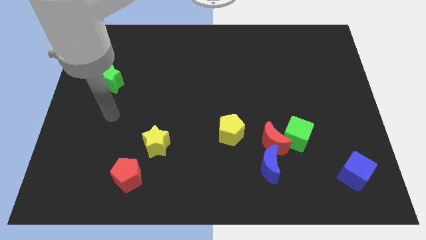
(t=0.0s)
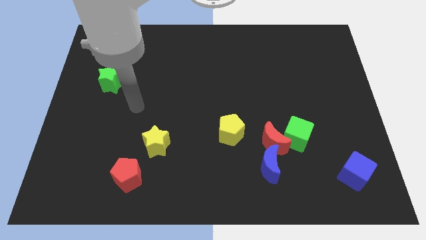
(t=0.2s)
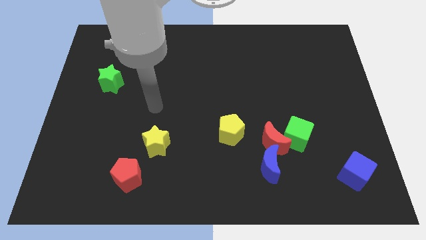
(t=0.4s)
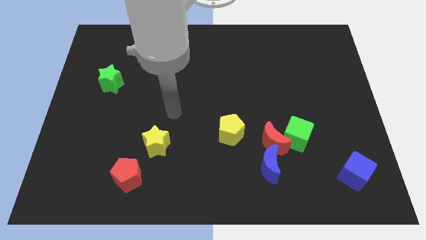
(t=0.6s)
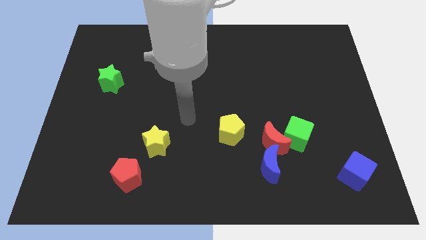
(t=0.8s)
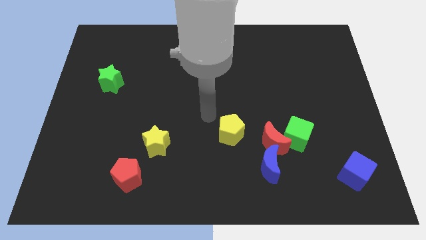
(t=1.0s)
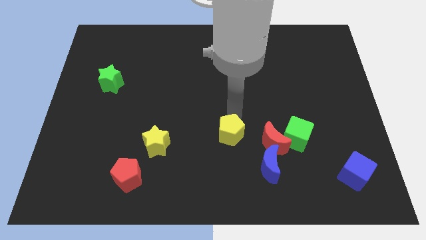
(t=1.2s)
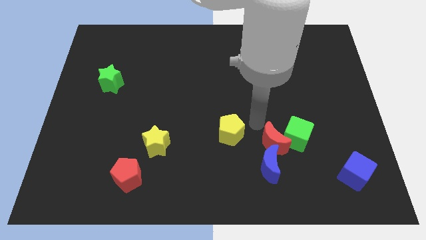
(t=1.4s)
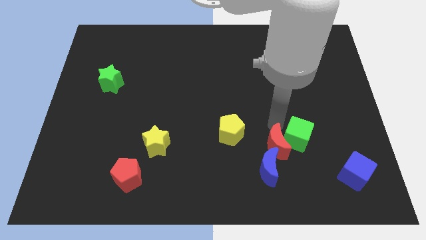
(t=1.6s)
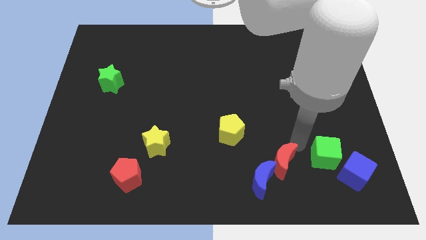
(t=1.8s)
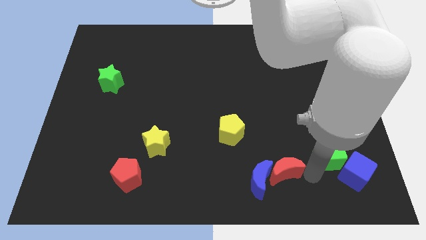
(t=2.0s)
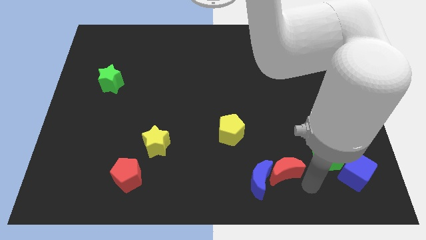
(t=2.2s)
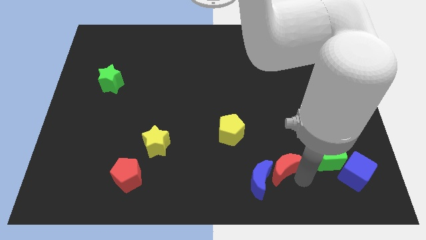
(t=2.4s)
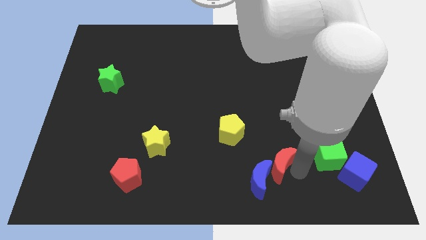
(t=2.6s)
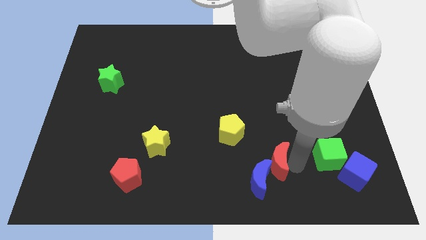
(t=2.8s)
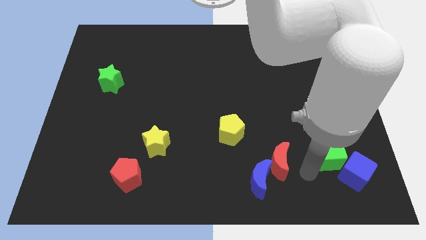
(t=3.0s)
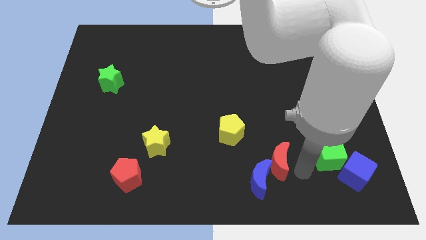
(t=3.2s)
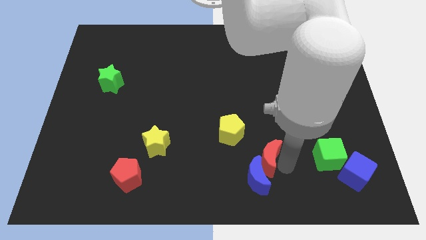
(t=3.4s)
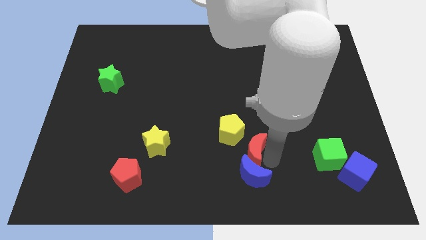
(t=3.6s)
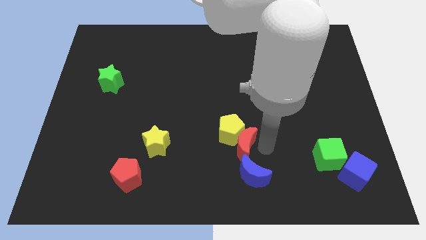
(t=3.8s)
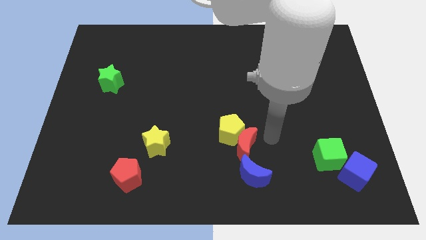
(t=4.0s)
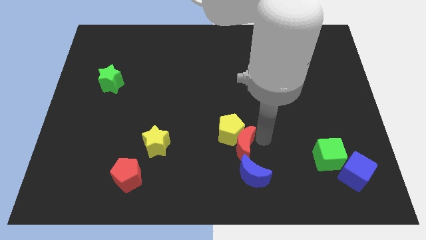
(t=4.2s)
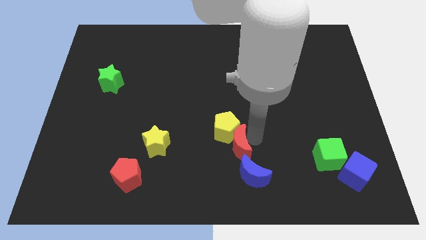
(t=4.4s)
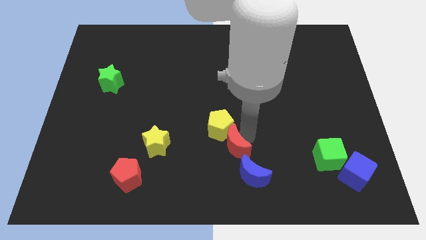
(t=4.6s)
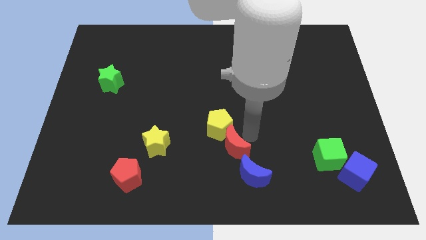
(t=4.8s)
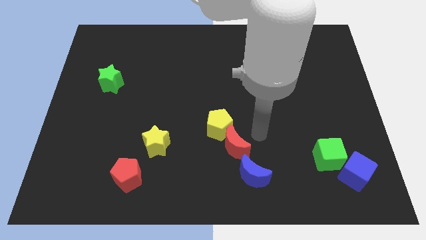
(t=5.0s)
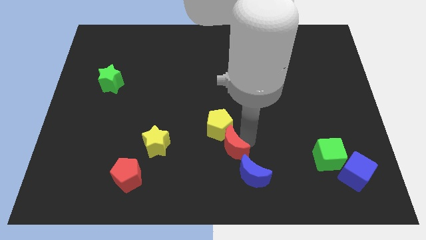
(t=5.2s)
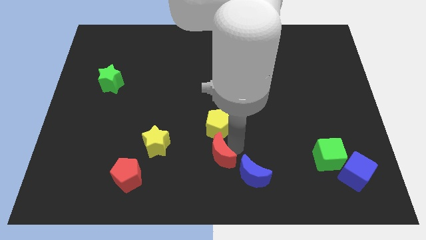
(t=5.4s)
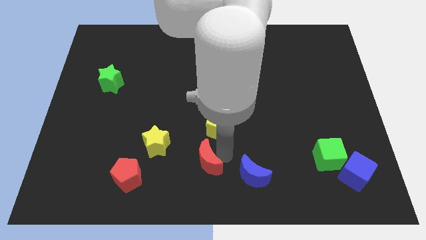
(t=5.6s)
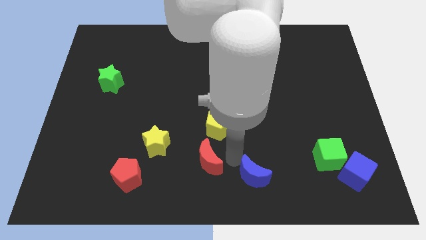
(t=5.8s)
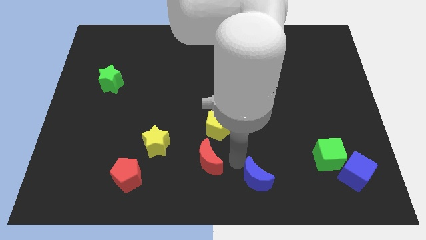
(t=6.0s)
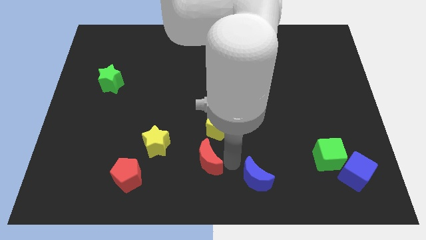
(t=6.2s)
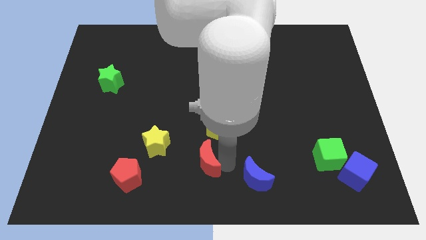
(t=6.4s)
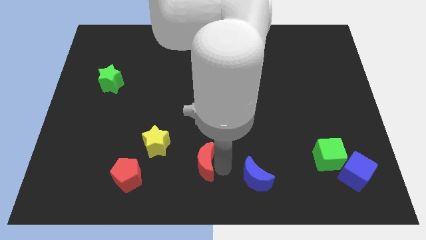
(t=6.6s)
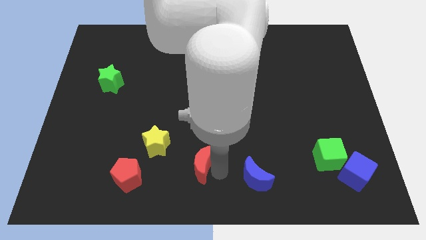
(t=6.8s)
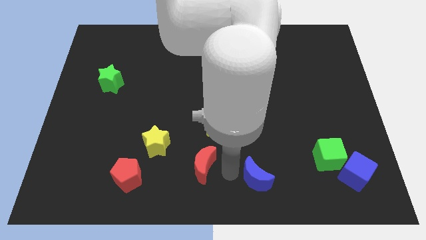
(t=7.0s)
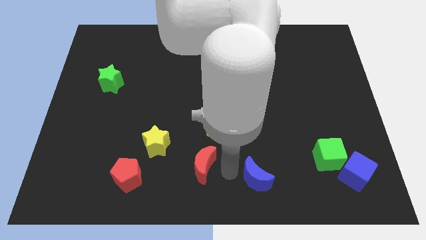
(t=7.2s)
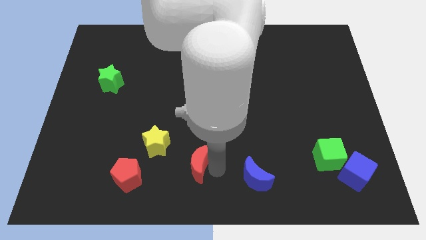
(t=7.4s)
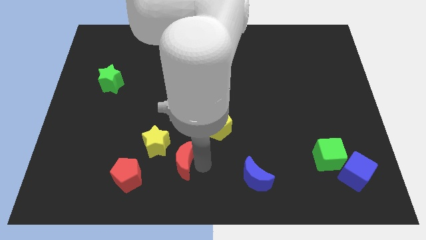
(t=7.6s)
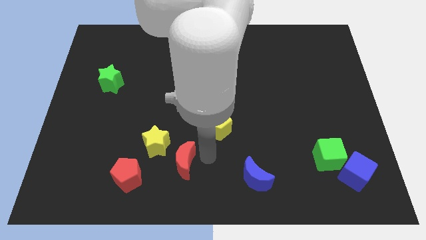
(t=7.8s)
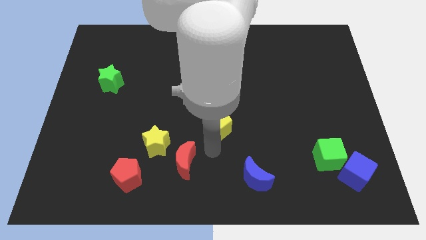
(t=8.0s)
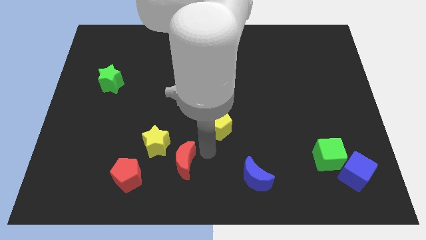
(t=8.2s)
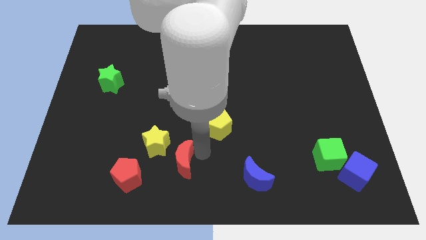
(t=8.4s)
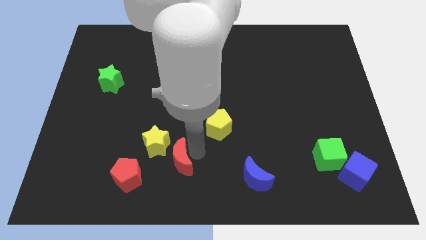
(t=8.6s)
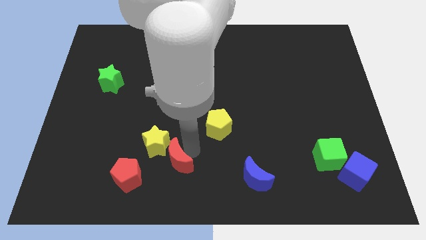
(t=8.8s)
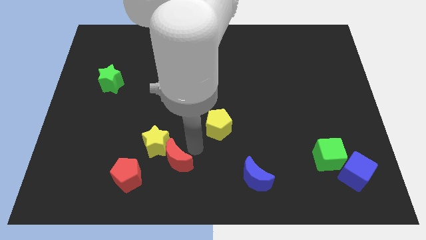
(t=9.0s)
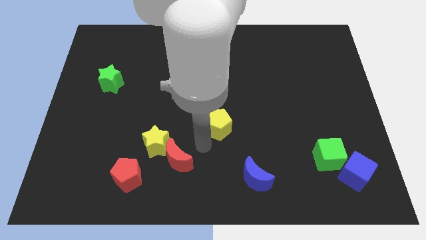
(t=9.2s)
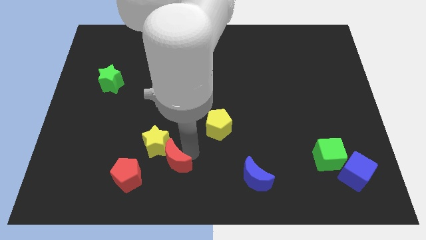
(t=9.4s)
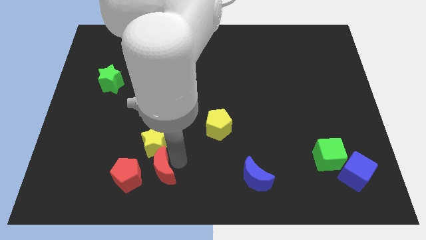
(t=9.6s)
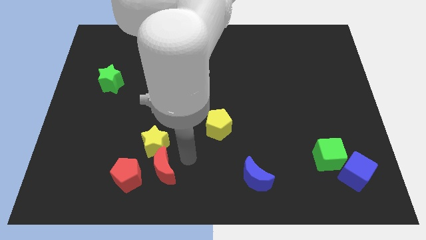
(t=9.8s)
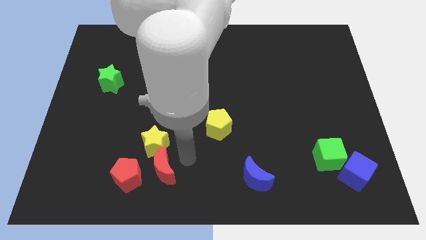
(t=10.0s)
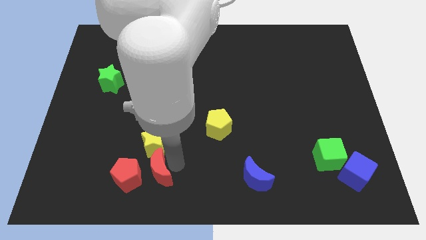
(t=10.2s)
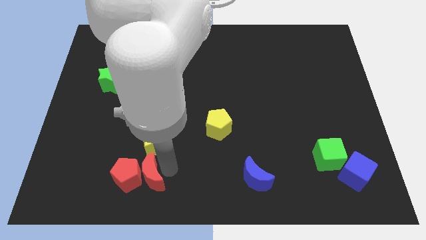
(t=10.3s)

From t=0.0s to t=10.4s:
push the red moon to the red pentagon

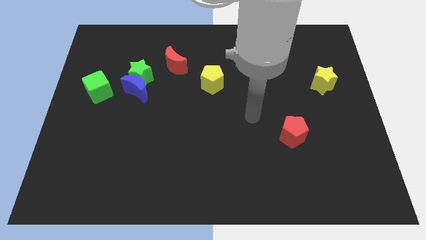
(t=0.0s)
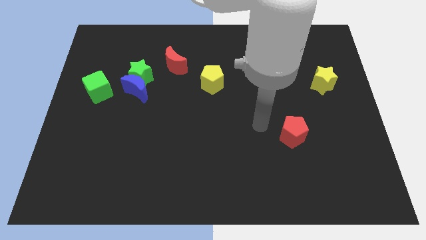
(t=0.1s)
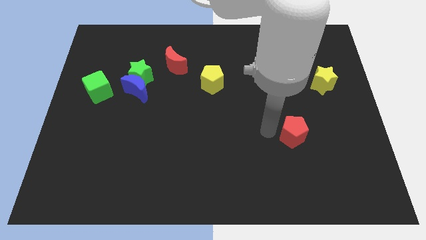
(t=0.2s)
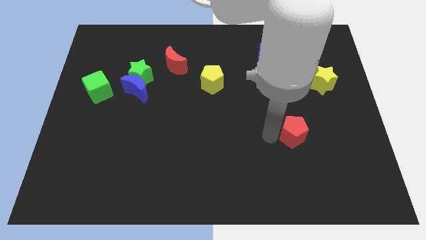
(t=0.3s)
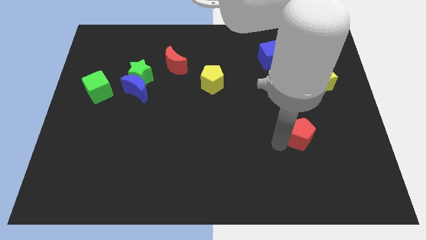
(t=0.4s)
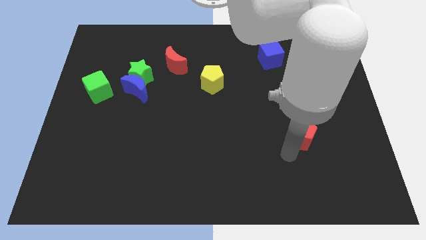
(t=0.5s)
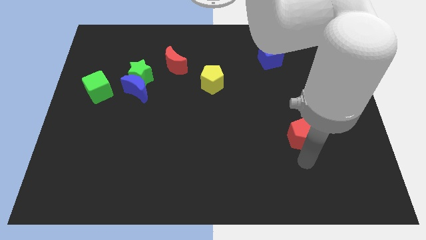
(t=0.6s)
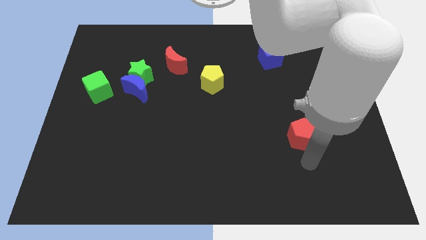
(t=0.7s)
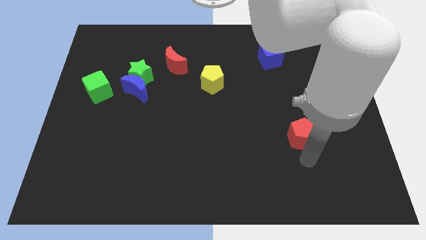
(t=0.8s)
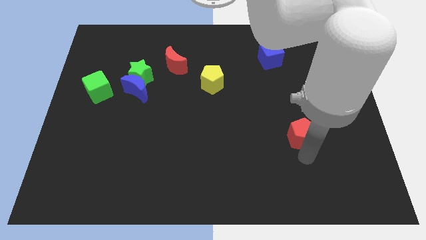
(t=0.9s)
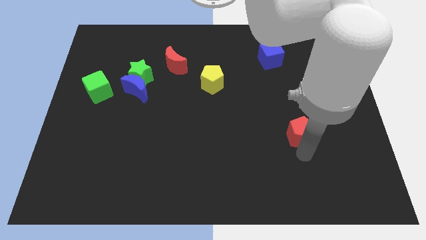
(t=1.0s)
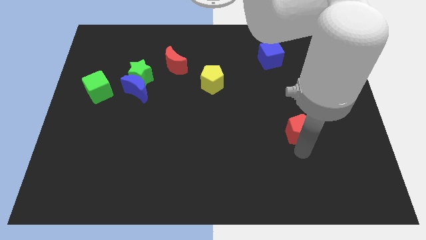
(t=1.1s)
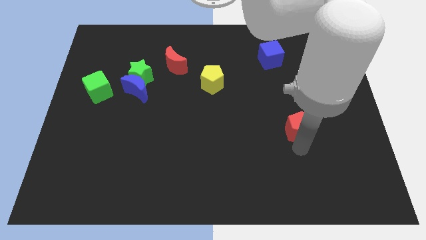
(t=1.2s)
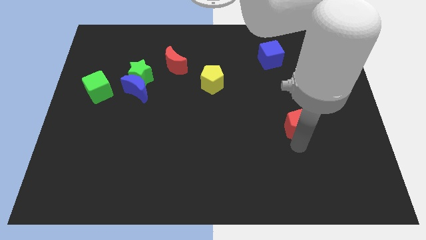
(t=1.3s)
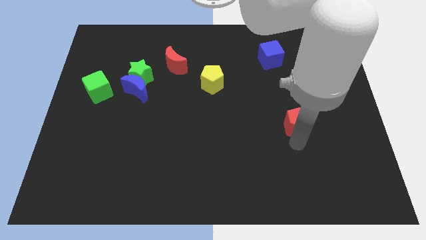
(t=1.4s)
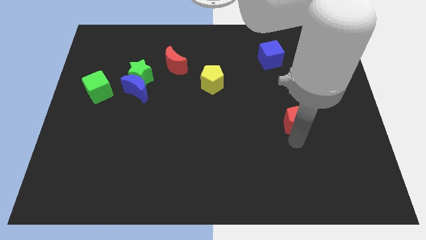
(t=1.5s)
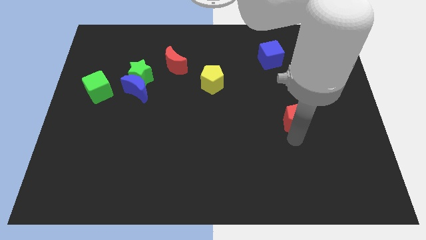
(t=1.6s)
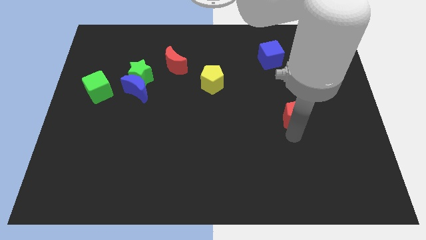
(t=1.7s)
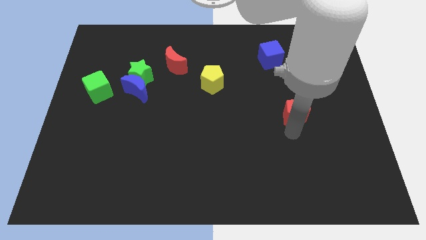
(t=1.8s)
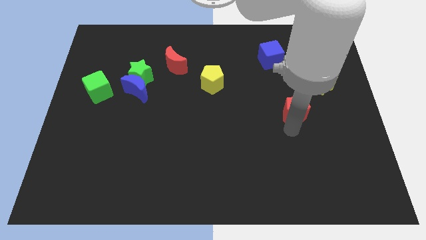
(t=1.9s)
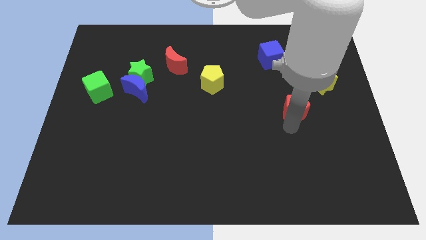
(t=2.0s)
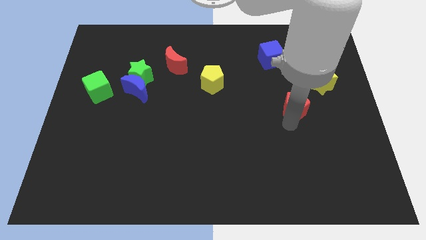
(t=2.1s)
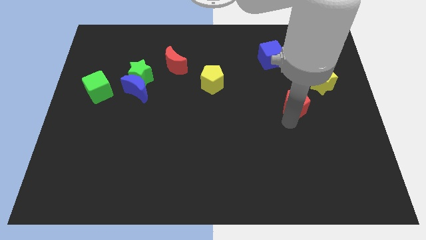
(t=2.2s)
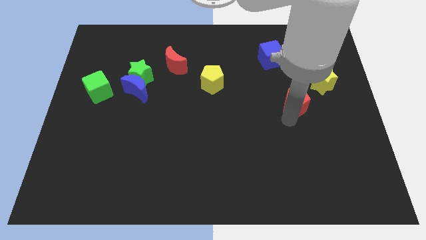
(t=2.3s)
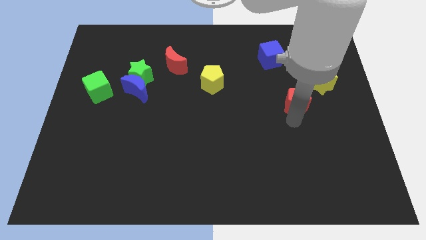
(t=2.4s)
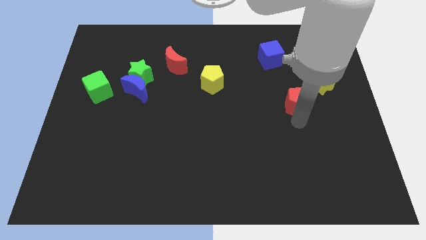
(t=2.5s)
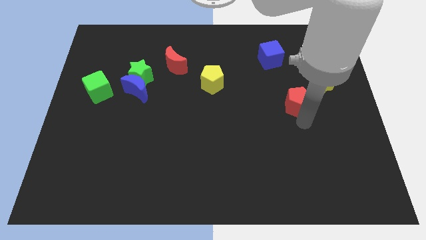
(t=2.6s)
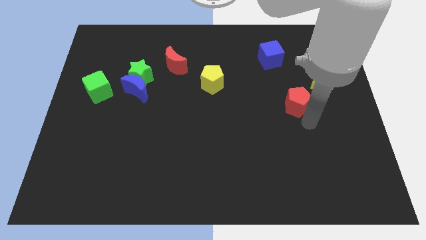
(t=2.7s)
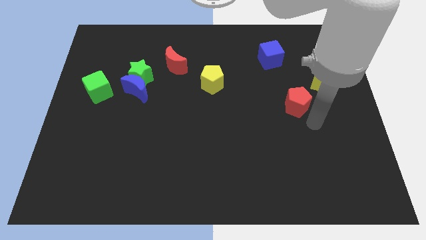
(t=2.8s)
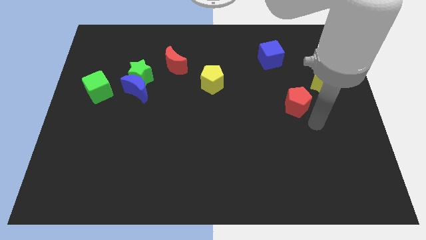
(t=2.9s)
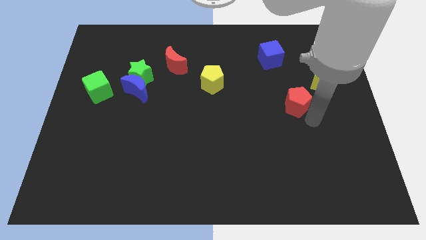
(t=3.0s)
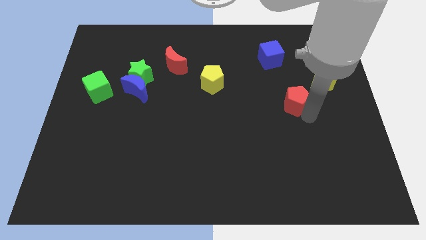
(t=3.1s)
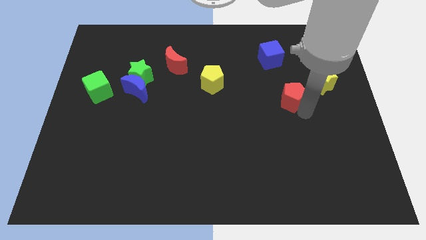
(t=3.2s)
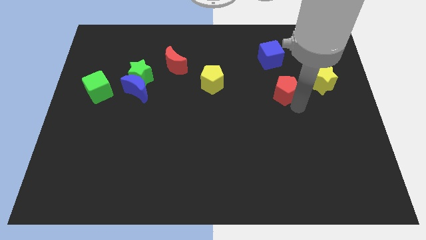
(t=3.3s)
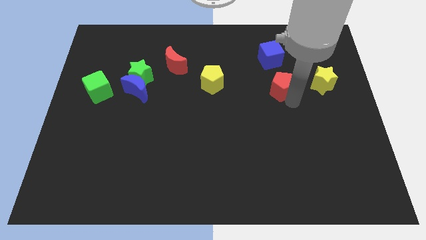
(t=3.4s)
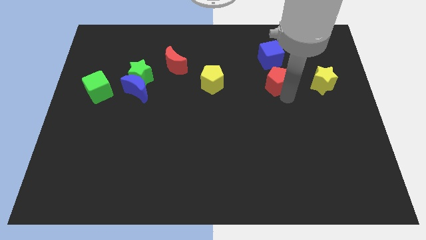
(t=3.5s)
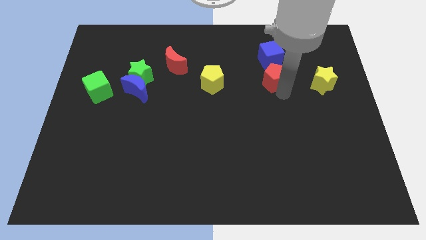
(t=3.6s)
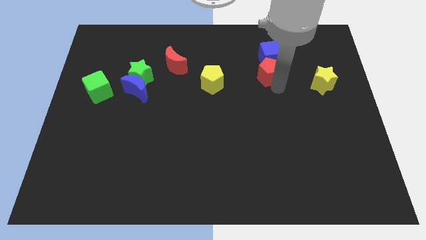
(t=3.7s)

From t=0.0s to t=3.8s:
move the red pentagon close to the blue cube
